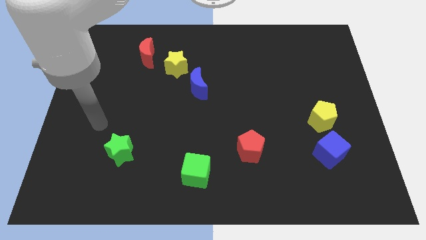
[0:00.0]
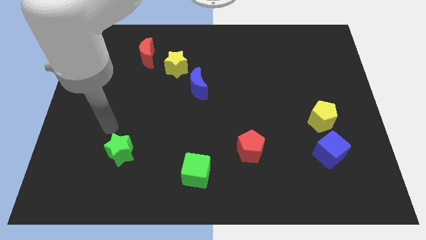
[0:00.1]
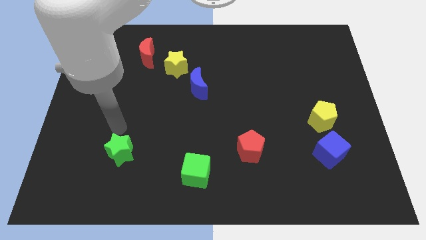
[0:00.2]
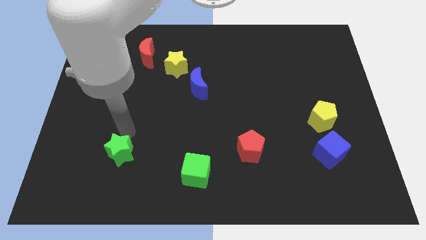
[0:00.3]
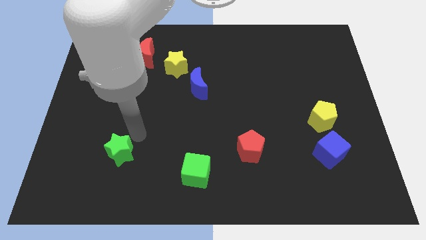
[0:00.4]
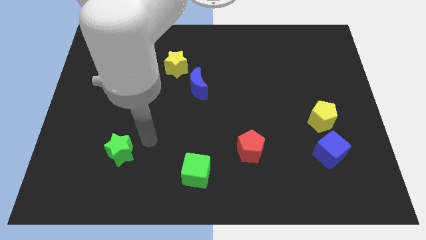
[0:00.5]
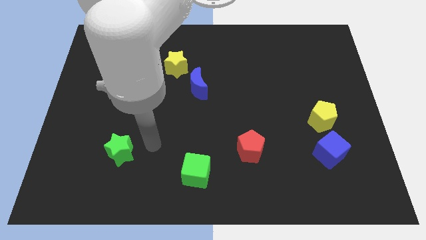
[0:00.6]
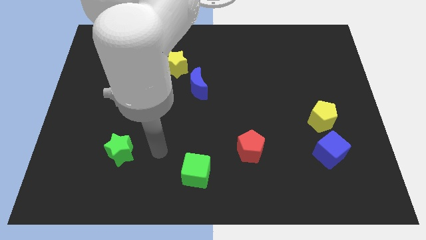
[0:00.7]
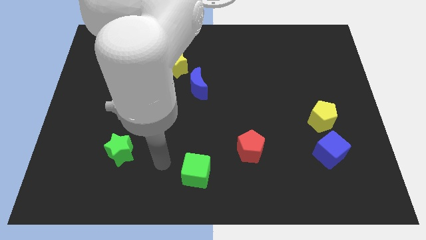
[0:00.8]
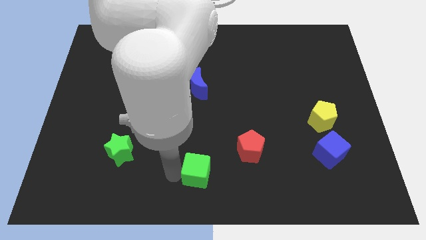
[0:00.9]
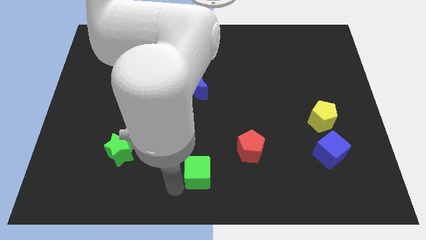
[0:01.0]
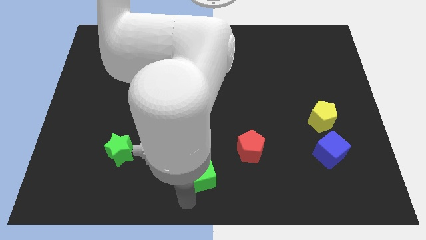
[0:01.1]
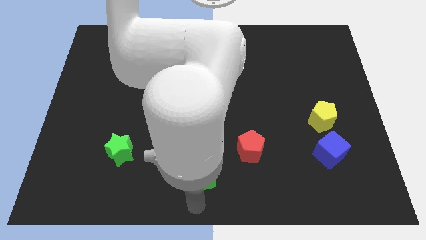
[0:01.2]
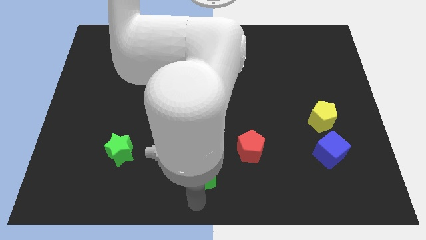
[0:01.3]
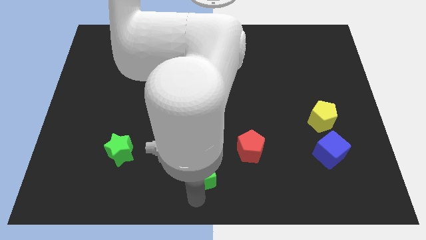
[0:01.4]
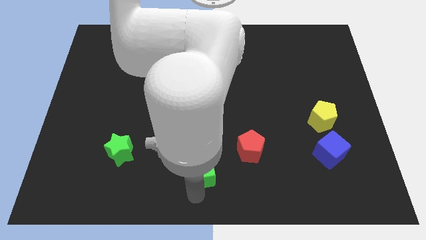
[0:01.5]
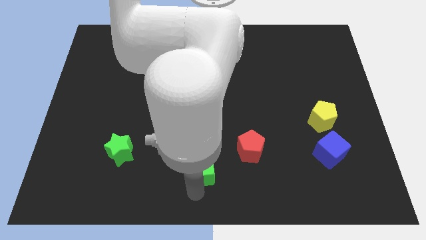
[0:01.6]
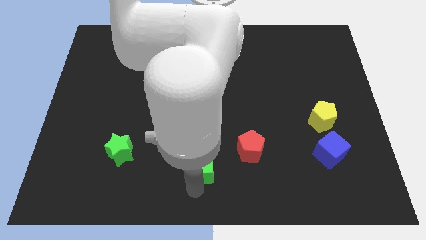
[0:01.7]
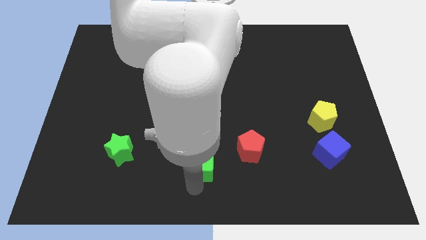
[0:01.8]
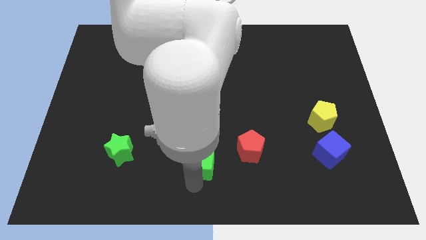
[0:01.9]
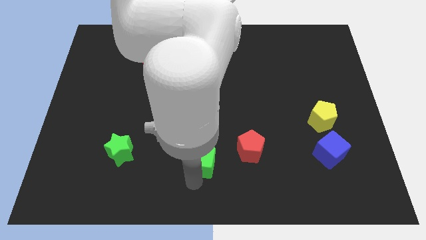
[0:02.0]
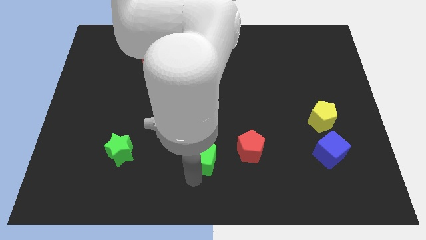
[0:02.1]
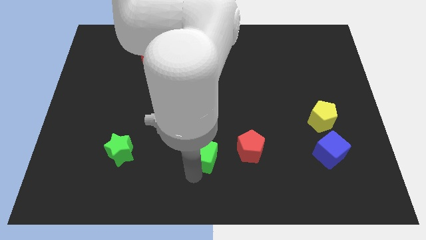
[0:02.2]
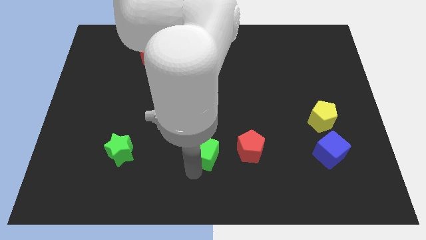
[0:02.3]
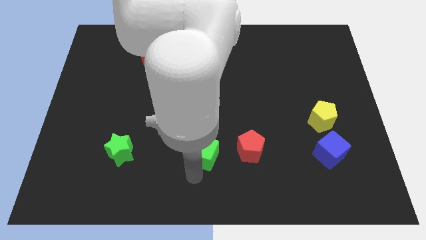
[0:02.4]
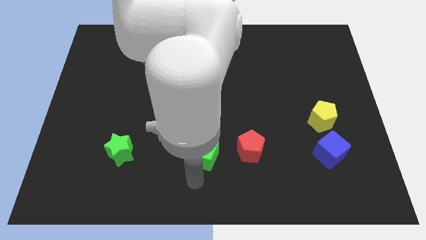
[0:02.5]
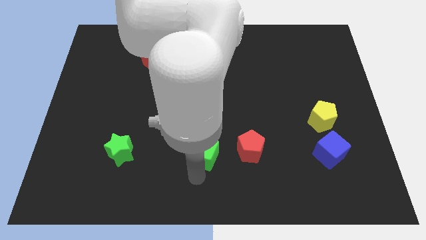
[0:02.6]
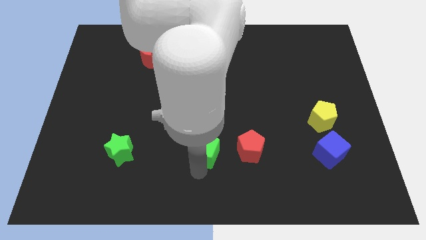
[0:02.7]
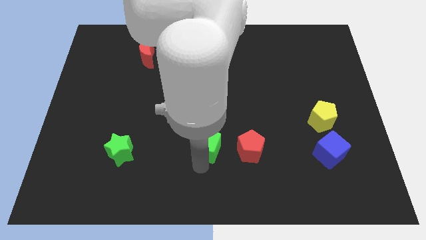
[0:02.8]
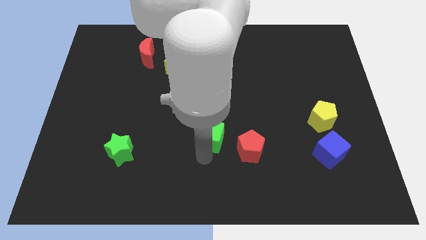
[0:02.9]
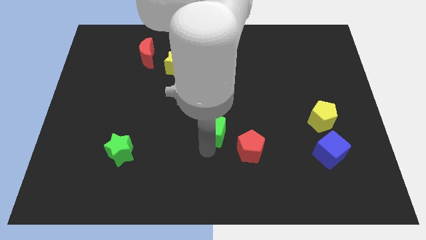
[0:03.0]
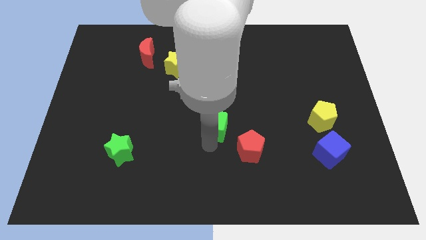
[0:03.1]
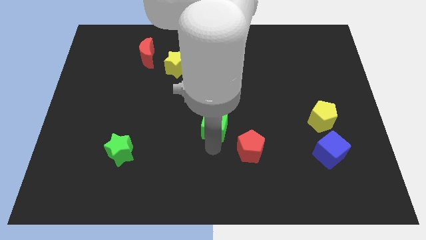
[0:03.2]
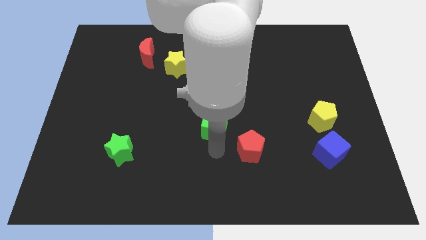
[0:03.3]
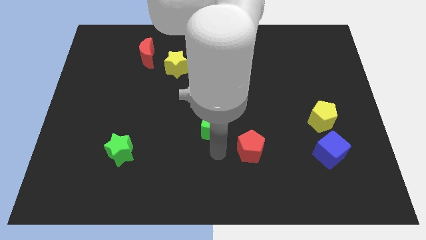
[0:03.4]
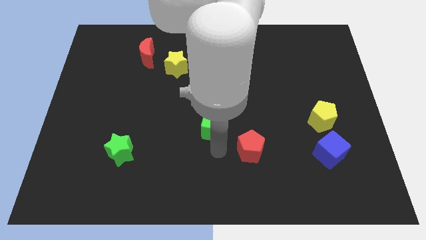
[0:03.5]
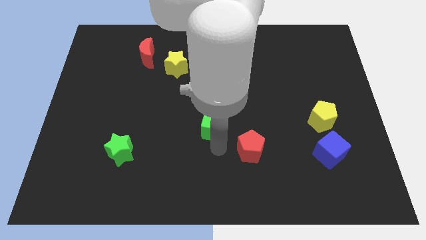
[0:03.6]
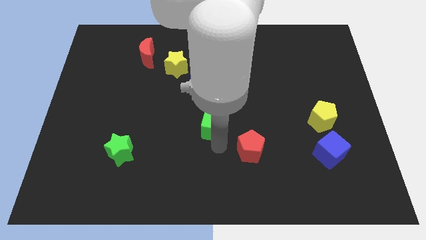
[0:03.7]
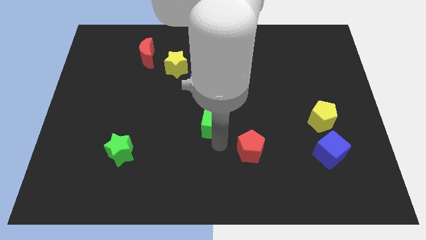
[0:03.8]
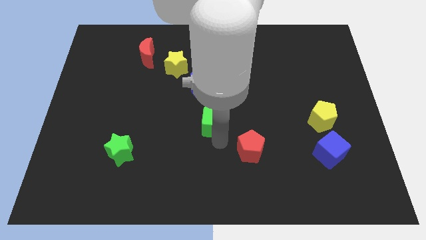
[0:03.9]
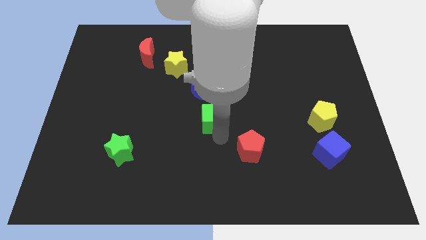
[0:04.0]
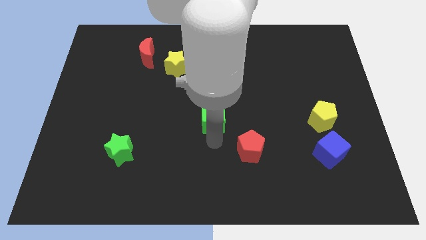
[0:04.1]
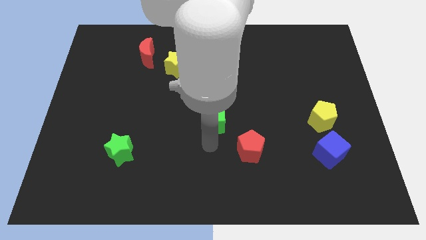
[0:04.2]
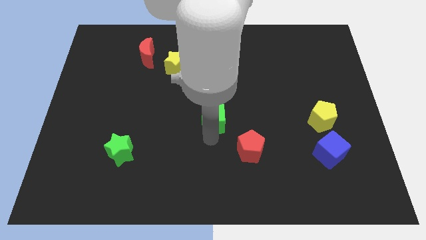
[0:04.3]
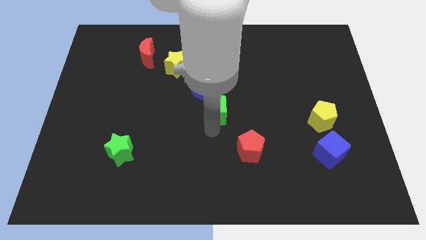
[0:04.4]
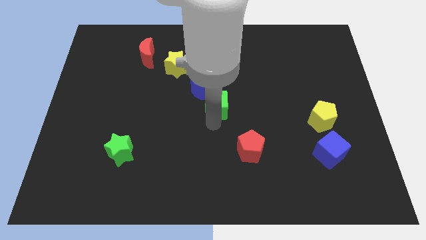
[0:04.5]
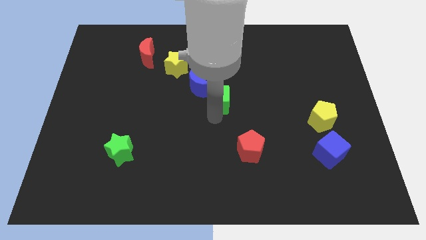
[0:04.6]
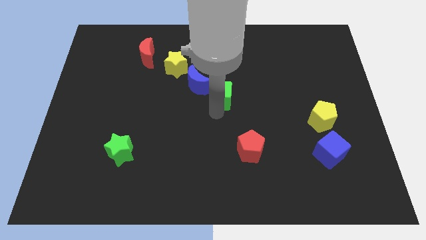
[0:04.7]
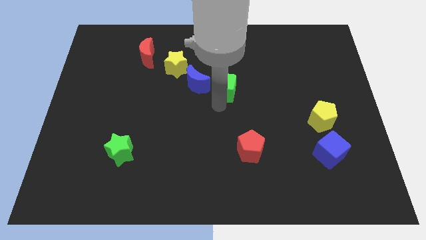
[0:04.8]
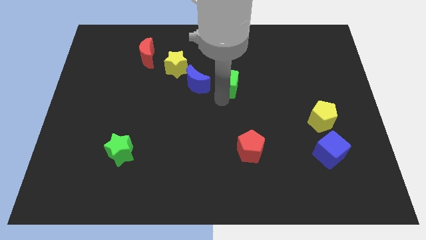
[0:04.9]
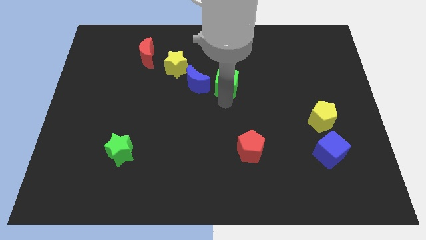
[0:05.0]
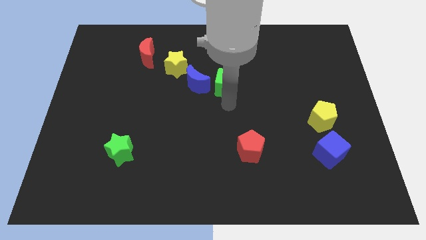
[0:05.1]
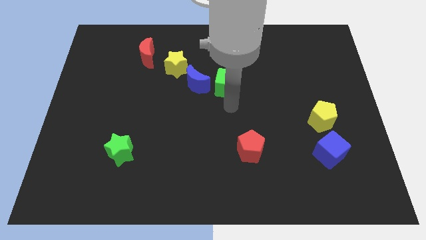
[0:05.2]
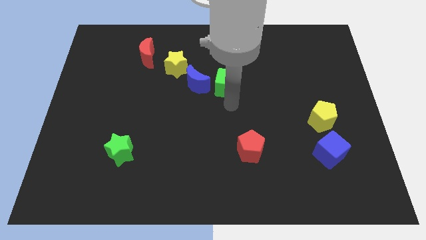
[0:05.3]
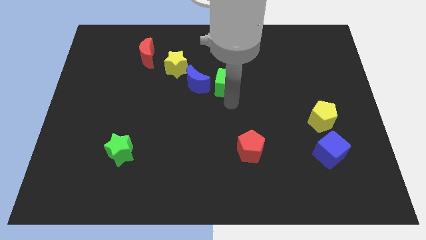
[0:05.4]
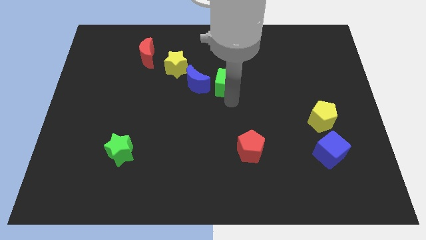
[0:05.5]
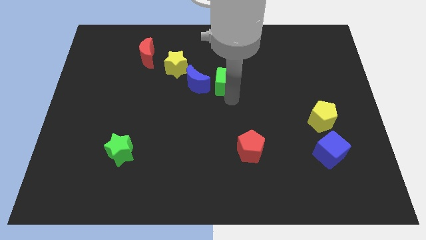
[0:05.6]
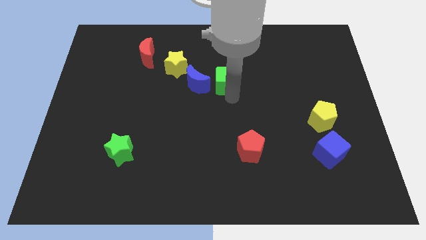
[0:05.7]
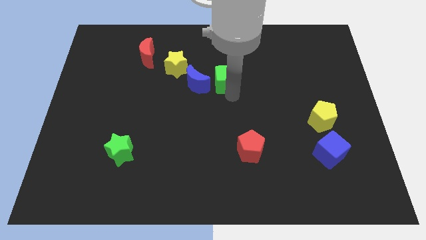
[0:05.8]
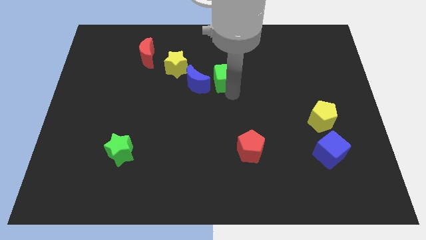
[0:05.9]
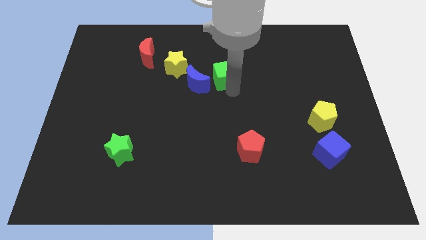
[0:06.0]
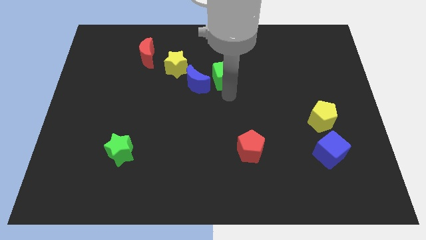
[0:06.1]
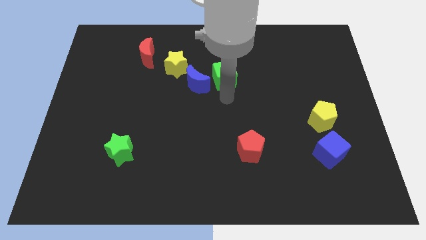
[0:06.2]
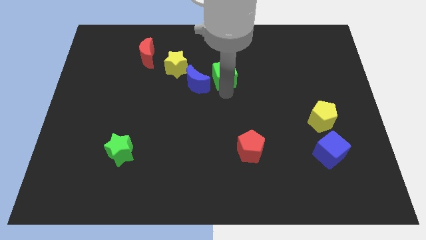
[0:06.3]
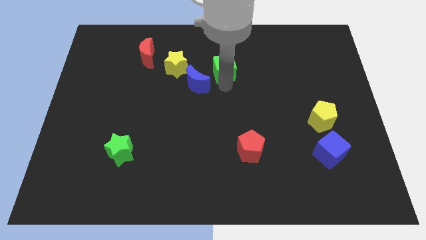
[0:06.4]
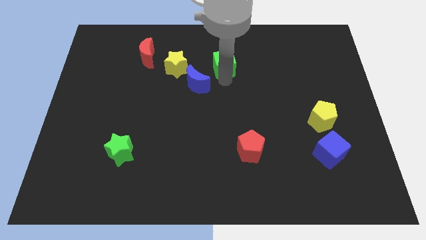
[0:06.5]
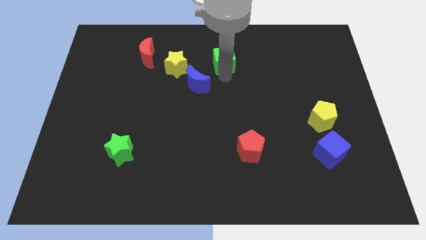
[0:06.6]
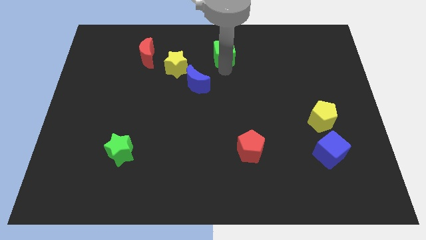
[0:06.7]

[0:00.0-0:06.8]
push the green cube to the towards your base
